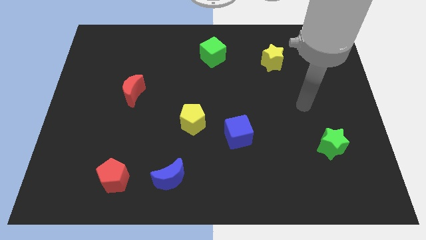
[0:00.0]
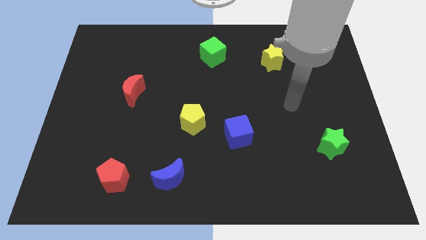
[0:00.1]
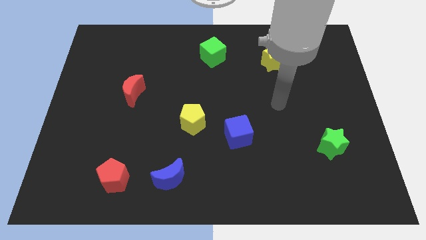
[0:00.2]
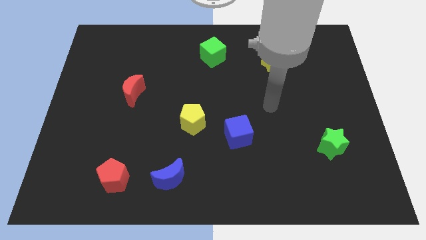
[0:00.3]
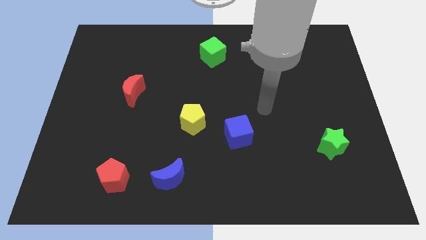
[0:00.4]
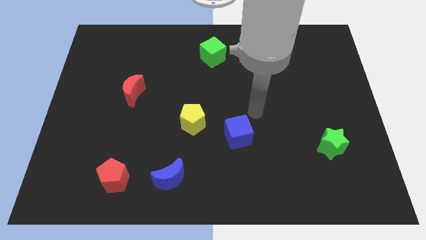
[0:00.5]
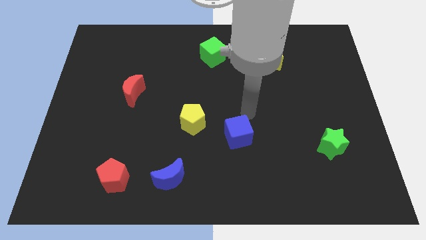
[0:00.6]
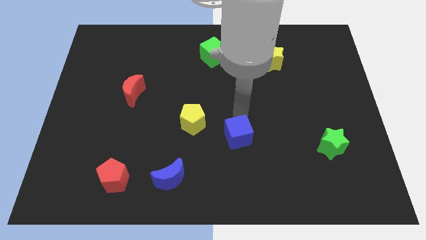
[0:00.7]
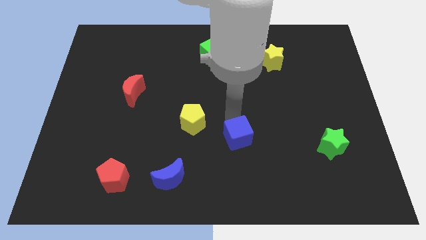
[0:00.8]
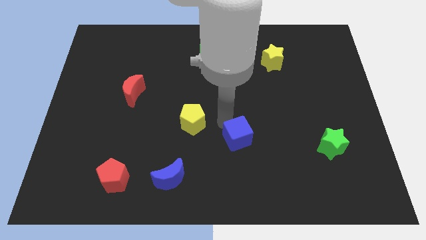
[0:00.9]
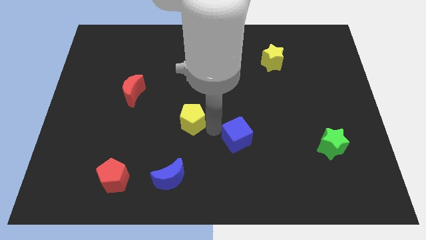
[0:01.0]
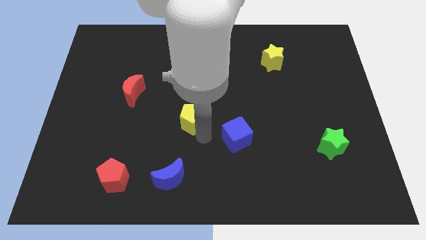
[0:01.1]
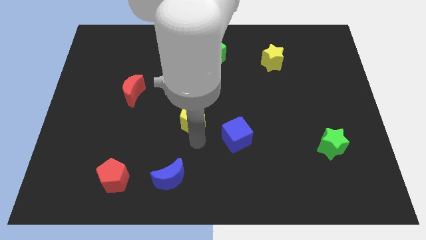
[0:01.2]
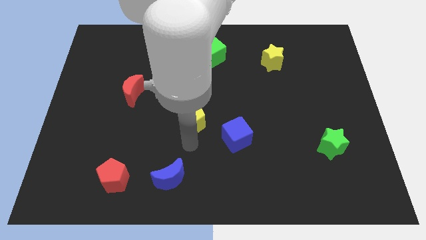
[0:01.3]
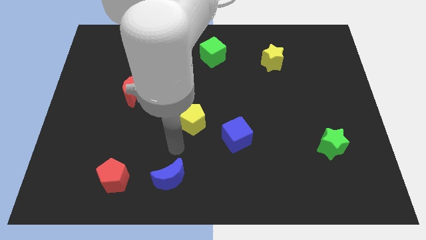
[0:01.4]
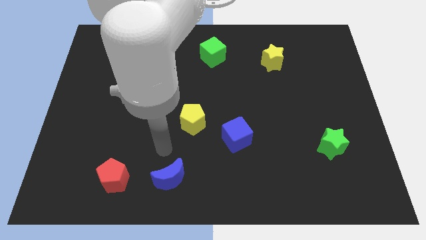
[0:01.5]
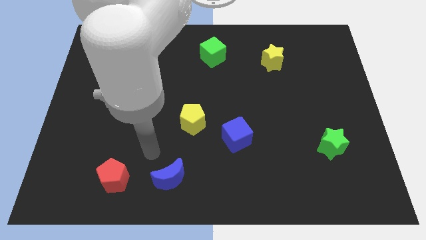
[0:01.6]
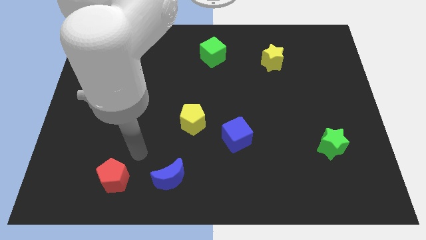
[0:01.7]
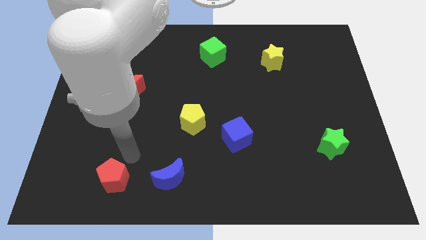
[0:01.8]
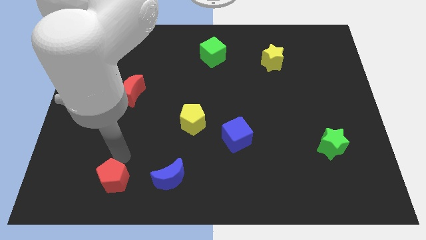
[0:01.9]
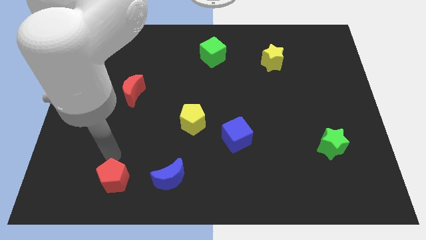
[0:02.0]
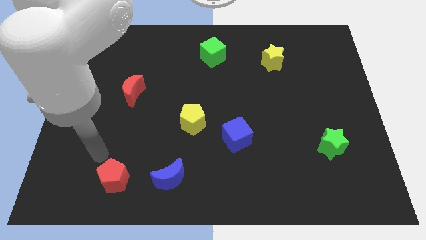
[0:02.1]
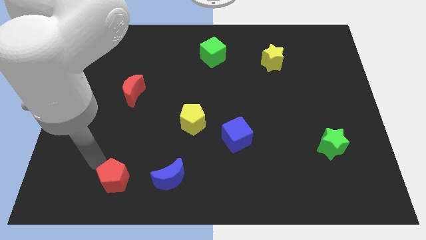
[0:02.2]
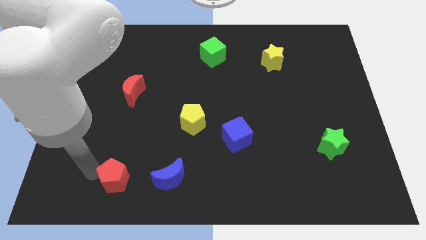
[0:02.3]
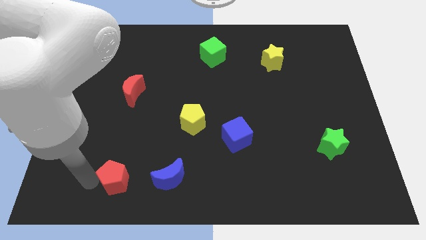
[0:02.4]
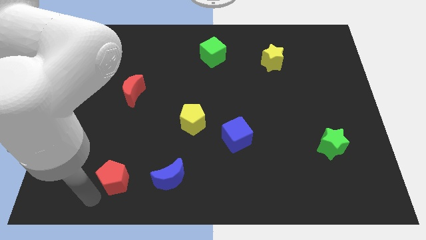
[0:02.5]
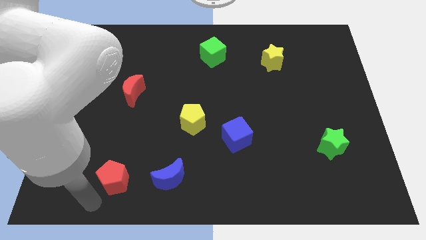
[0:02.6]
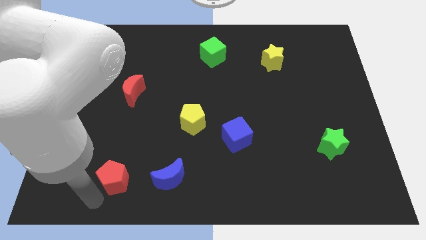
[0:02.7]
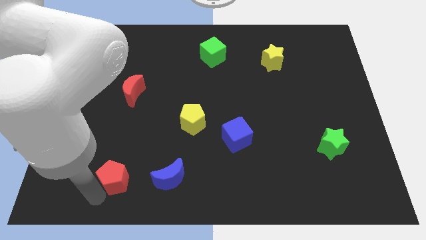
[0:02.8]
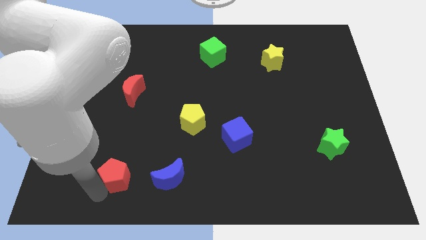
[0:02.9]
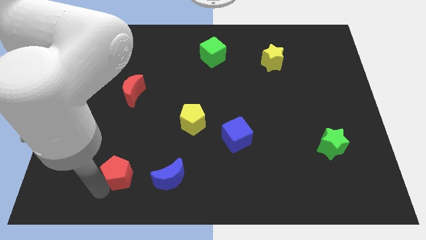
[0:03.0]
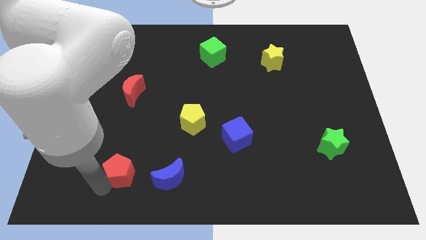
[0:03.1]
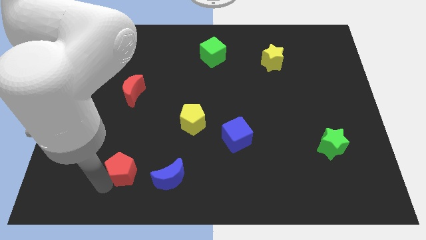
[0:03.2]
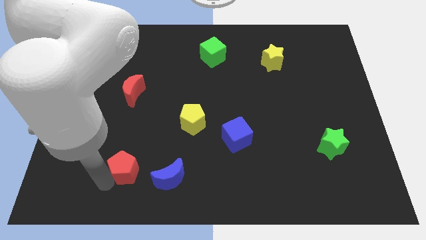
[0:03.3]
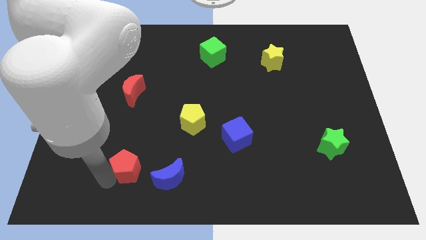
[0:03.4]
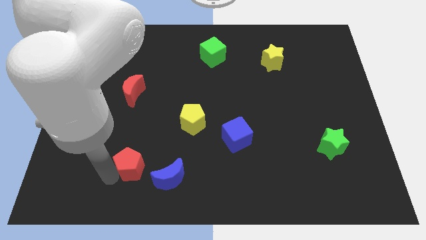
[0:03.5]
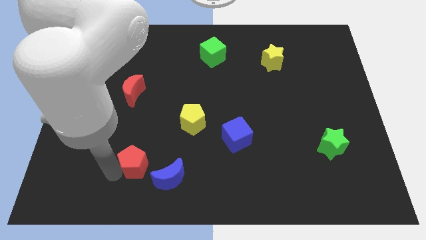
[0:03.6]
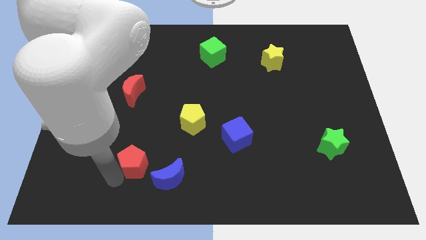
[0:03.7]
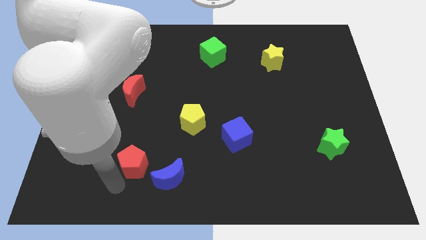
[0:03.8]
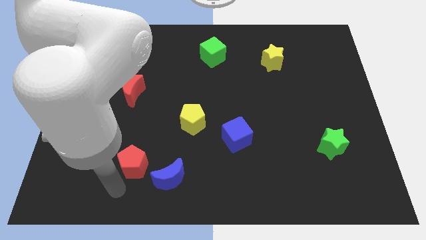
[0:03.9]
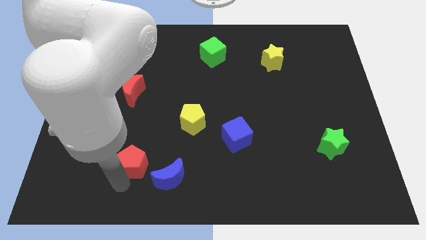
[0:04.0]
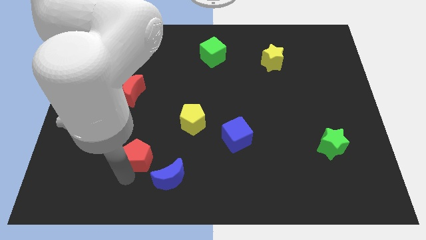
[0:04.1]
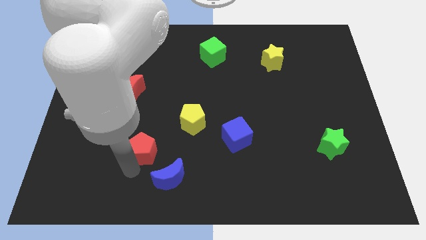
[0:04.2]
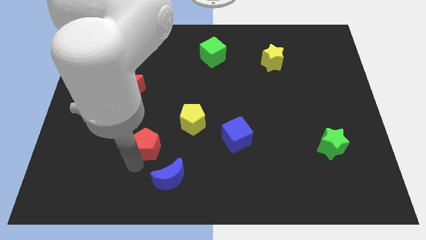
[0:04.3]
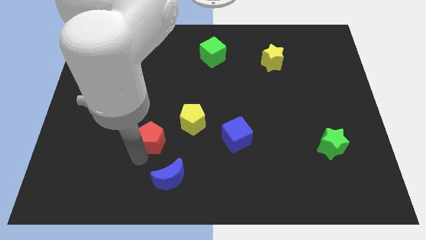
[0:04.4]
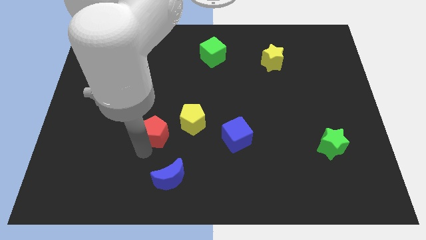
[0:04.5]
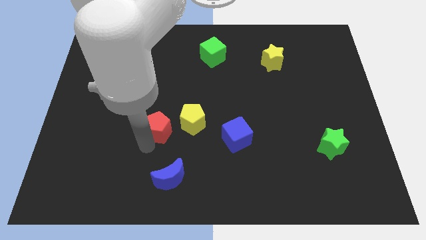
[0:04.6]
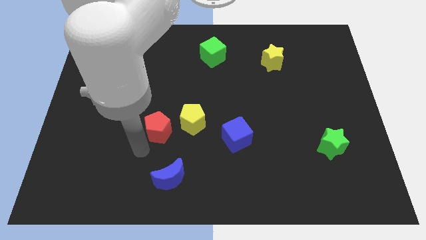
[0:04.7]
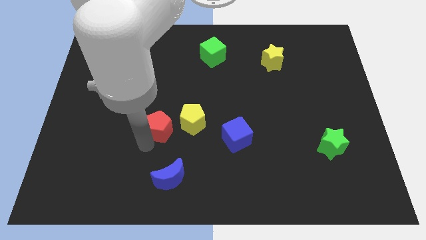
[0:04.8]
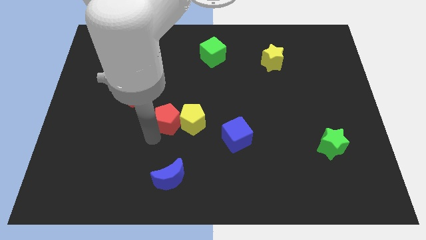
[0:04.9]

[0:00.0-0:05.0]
put the red pentagon to the center

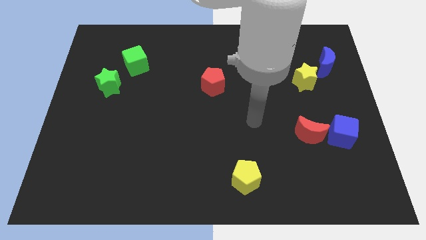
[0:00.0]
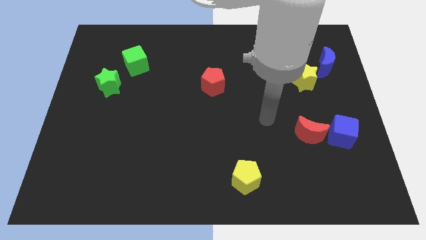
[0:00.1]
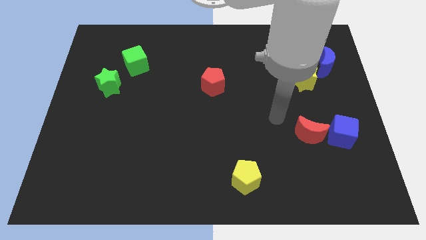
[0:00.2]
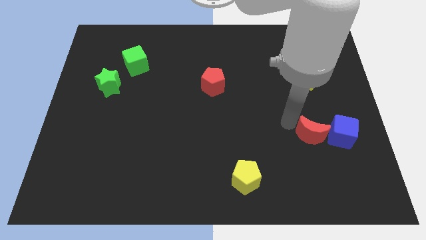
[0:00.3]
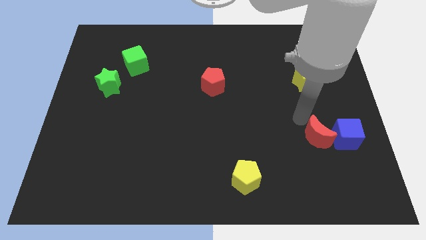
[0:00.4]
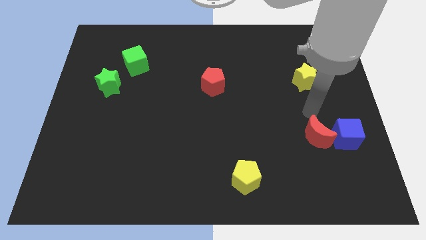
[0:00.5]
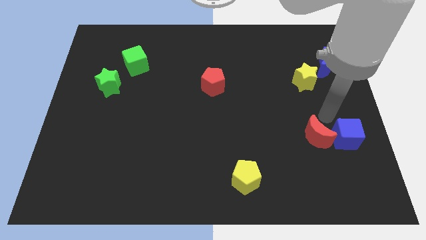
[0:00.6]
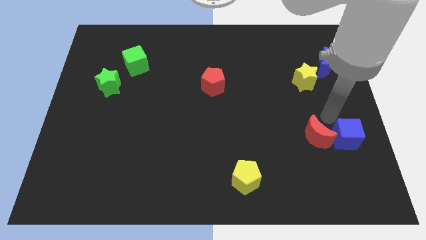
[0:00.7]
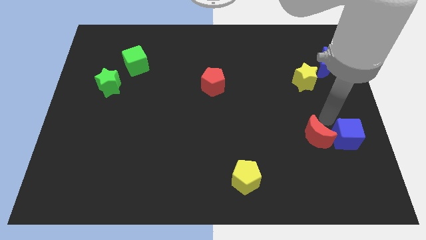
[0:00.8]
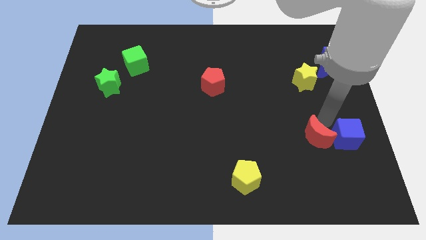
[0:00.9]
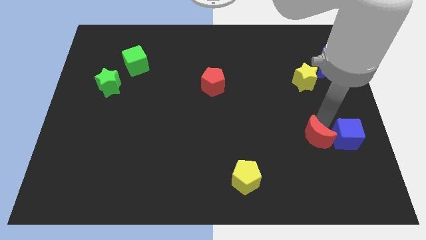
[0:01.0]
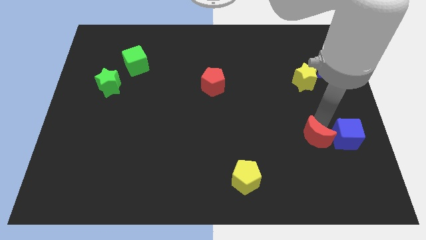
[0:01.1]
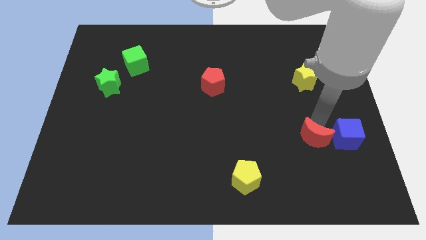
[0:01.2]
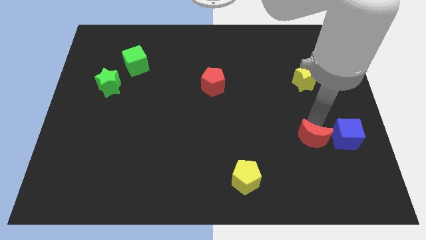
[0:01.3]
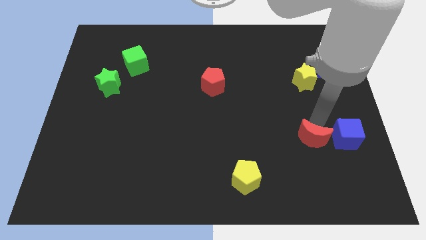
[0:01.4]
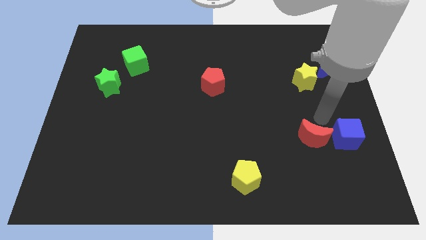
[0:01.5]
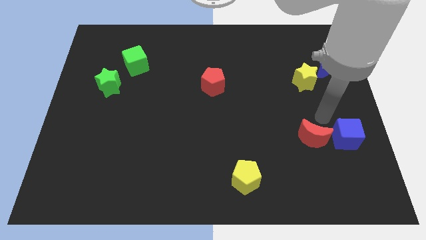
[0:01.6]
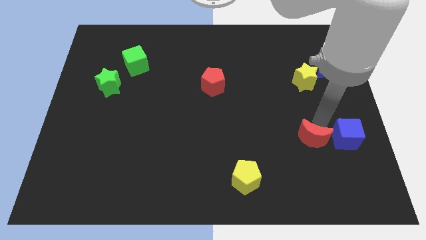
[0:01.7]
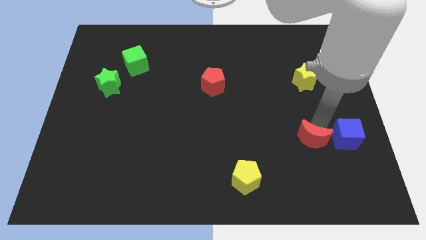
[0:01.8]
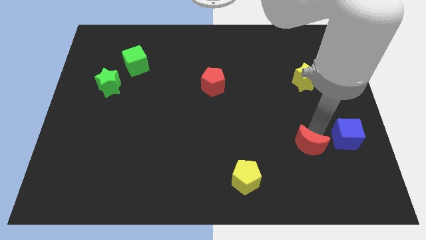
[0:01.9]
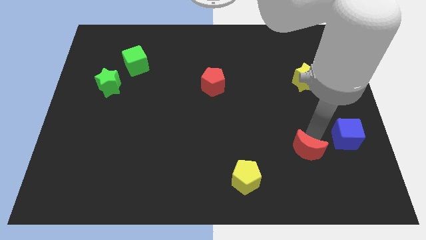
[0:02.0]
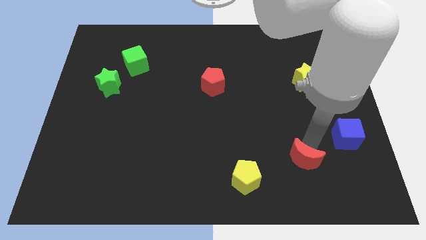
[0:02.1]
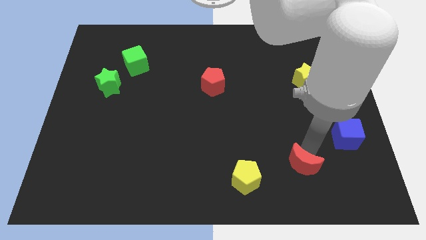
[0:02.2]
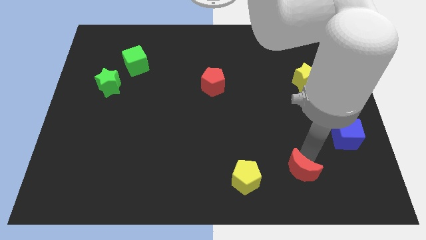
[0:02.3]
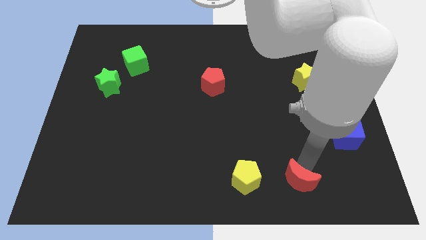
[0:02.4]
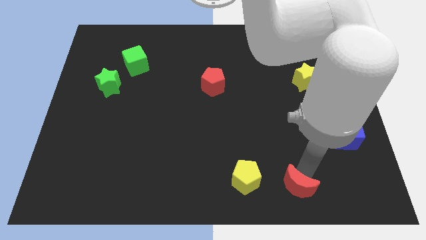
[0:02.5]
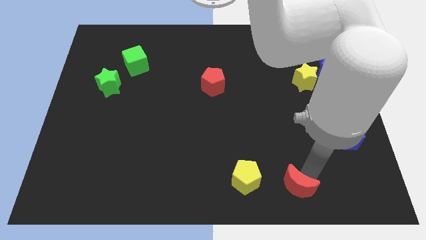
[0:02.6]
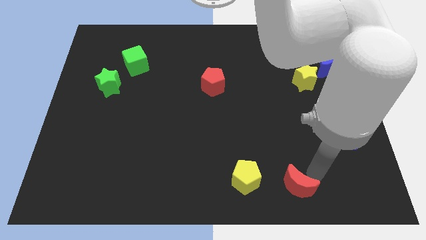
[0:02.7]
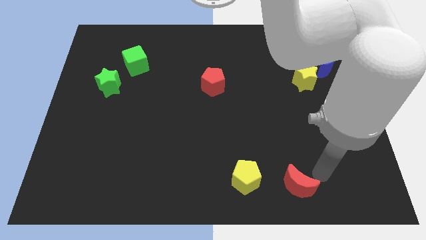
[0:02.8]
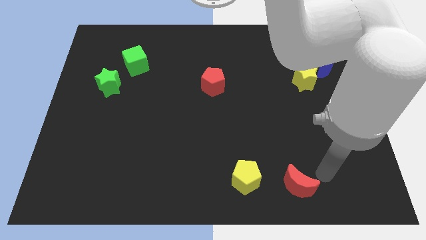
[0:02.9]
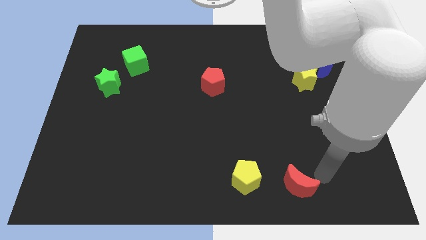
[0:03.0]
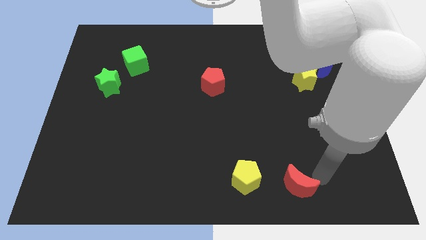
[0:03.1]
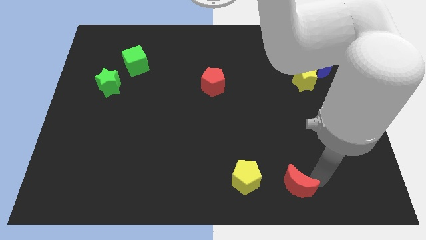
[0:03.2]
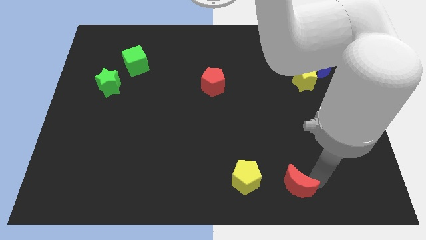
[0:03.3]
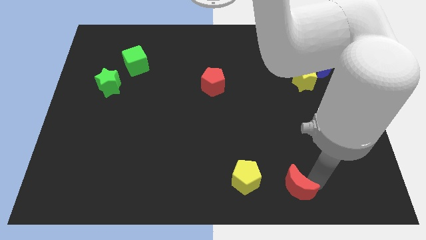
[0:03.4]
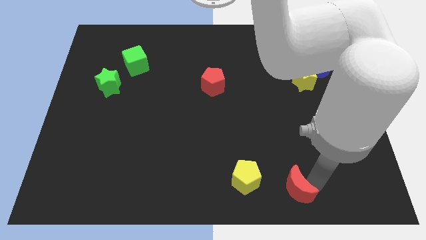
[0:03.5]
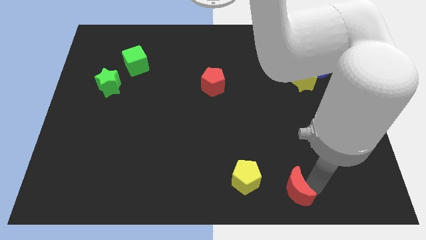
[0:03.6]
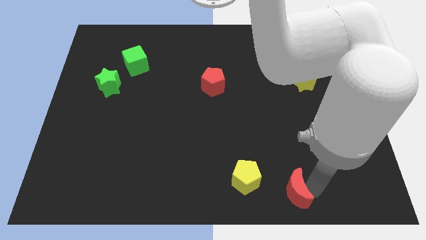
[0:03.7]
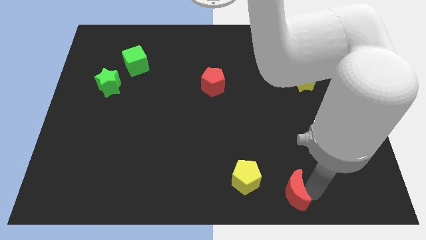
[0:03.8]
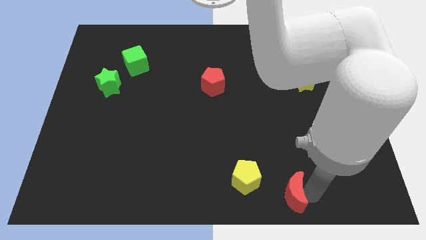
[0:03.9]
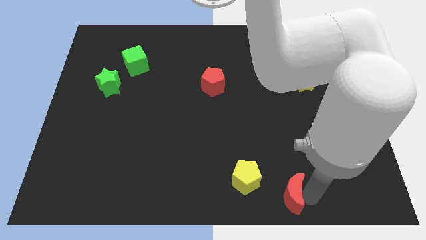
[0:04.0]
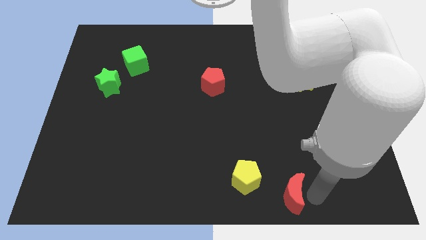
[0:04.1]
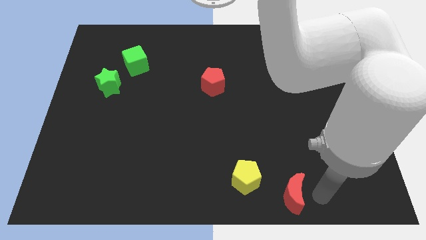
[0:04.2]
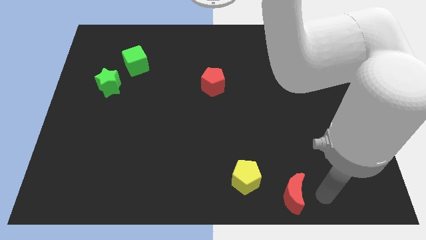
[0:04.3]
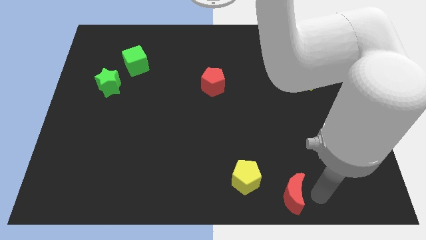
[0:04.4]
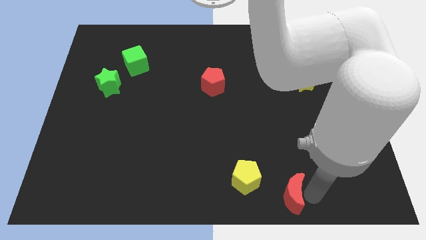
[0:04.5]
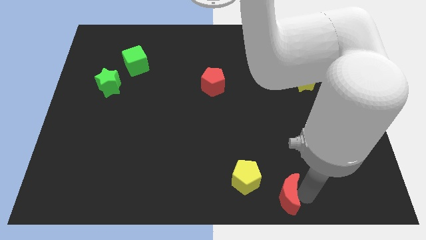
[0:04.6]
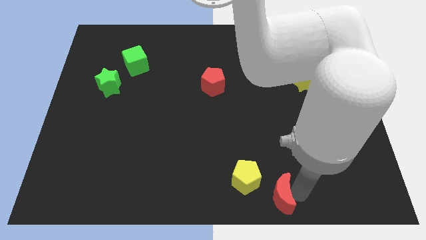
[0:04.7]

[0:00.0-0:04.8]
push the red moon to the bottom
